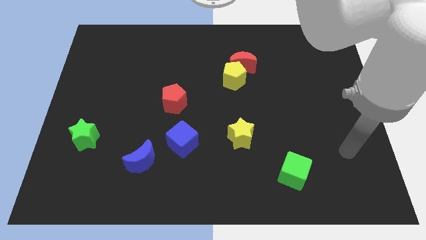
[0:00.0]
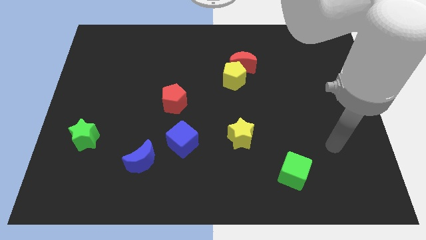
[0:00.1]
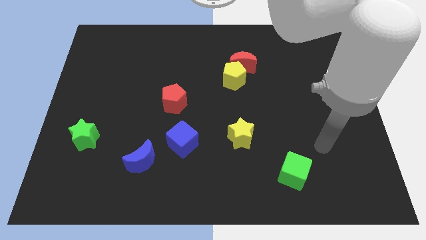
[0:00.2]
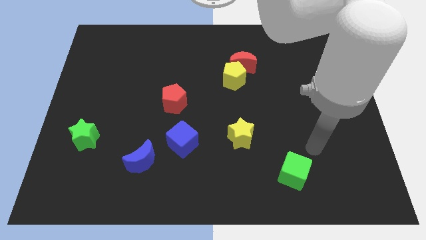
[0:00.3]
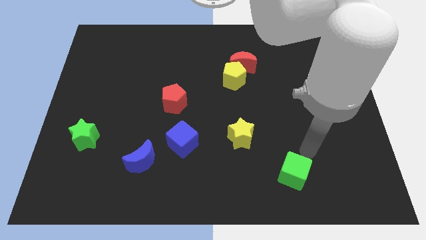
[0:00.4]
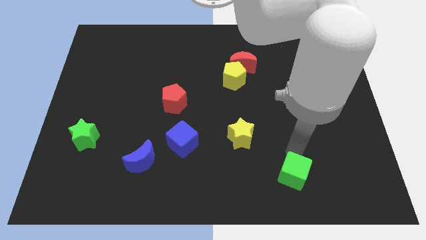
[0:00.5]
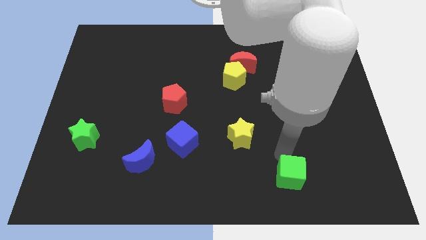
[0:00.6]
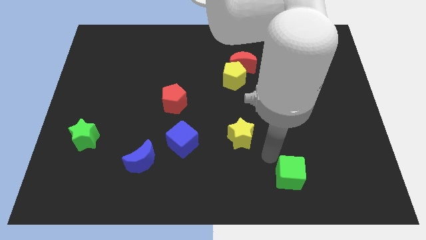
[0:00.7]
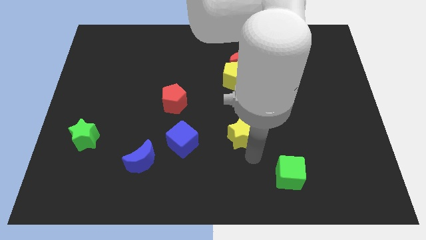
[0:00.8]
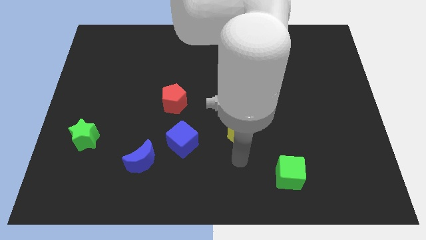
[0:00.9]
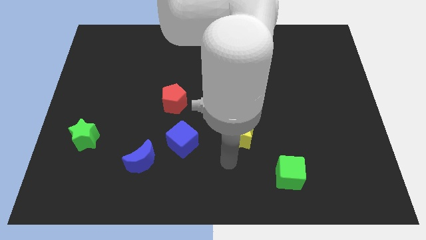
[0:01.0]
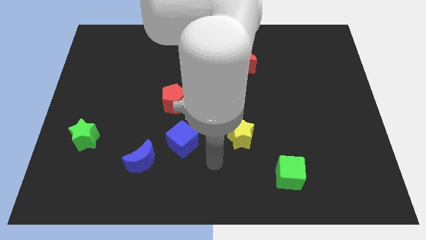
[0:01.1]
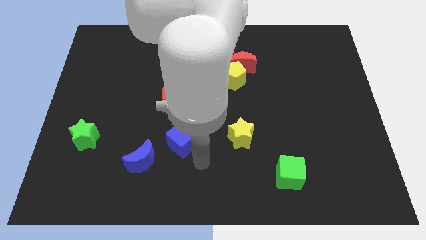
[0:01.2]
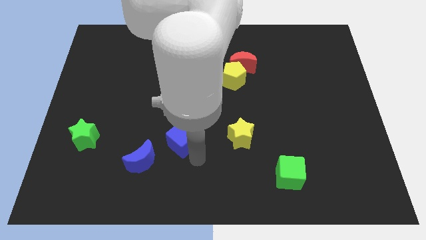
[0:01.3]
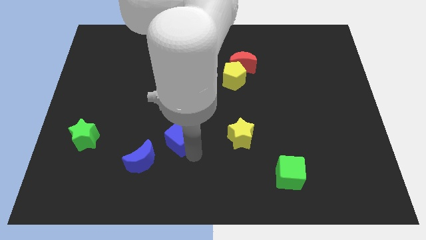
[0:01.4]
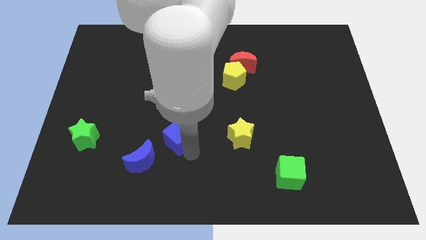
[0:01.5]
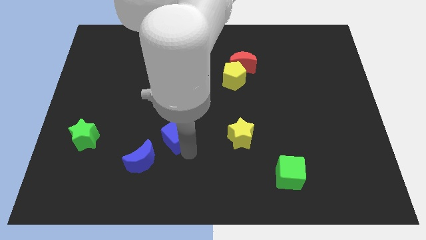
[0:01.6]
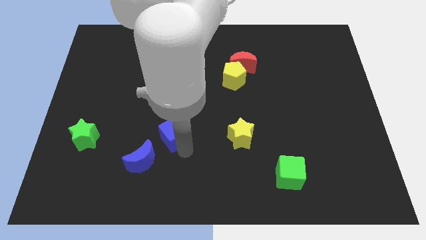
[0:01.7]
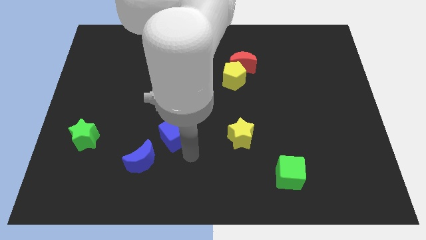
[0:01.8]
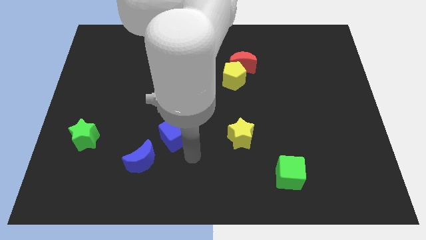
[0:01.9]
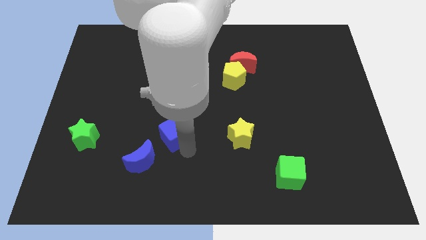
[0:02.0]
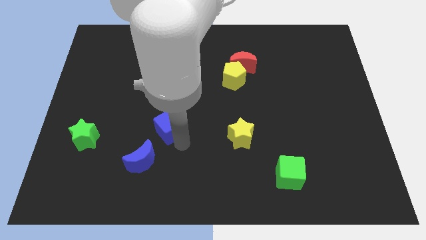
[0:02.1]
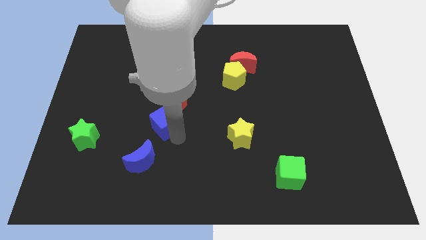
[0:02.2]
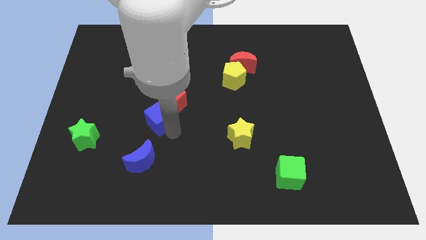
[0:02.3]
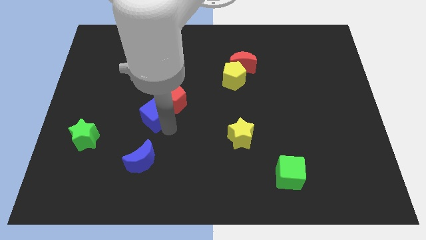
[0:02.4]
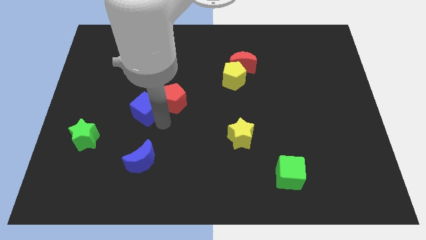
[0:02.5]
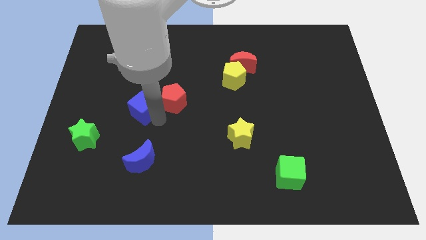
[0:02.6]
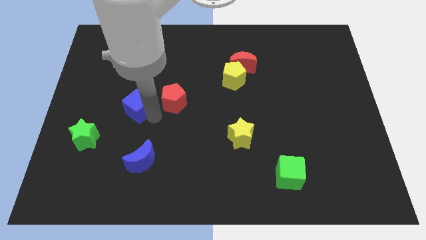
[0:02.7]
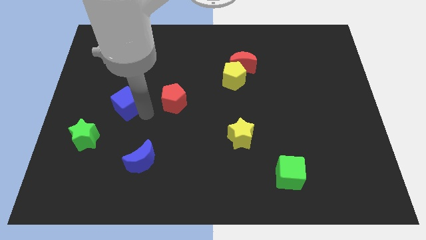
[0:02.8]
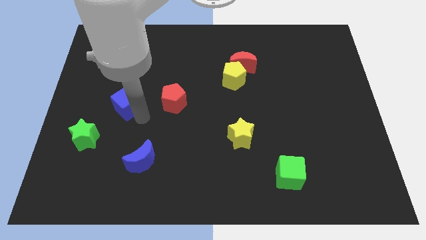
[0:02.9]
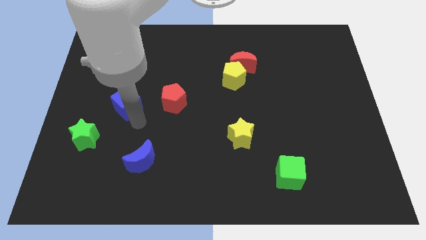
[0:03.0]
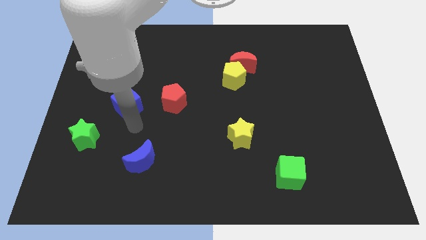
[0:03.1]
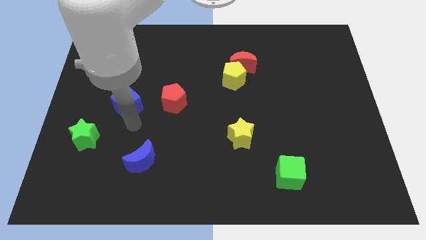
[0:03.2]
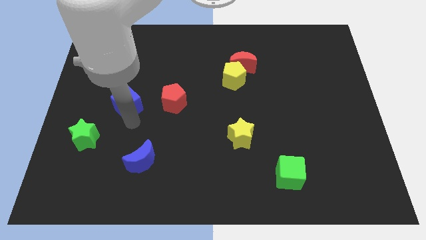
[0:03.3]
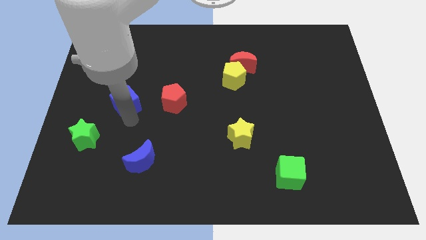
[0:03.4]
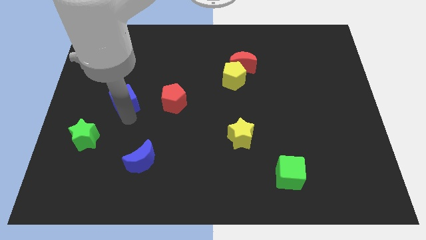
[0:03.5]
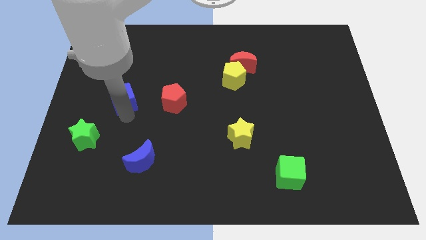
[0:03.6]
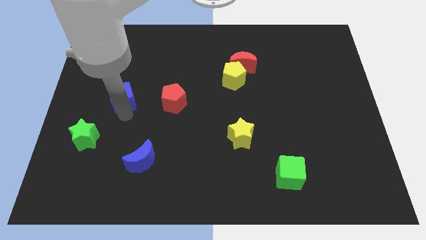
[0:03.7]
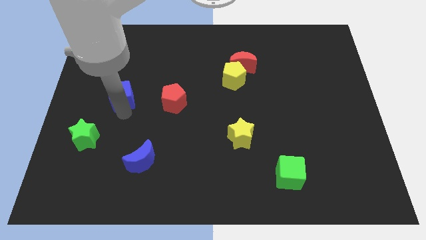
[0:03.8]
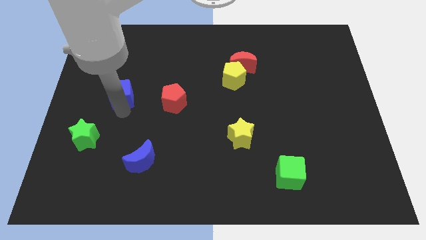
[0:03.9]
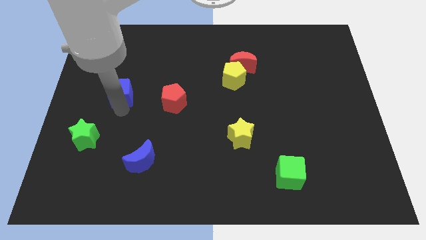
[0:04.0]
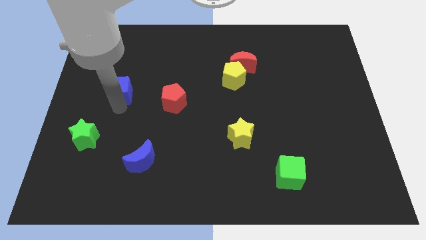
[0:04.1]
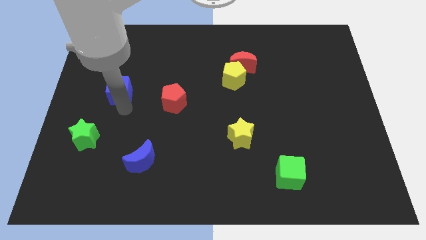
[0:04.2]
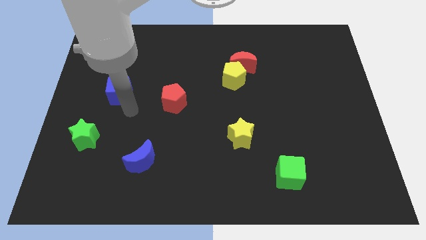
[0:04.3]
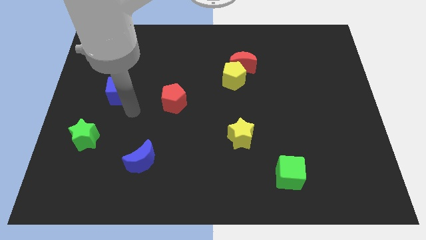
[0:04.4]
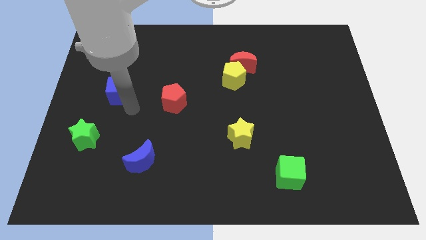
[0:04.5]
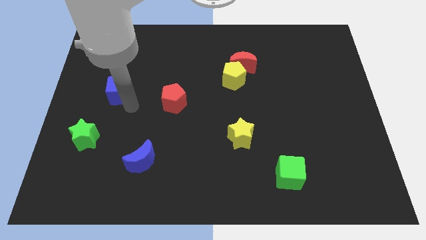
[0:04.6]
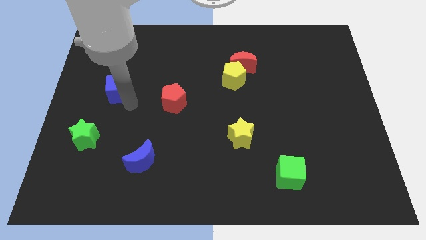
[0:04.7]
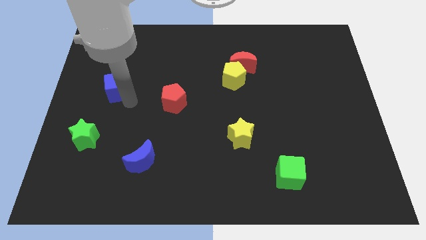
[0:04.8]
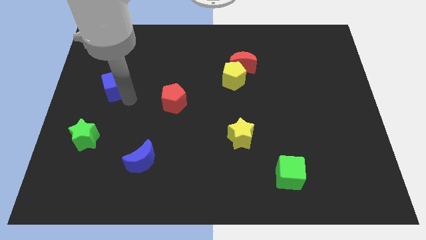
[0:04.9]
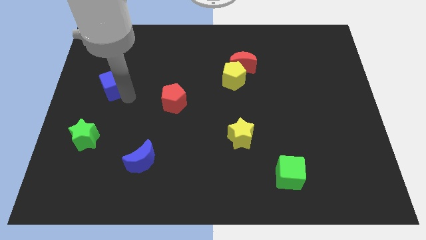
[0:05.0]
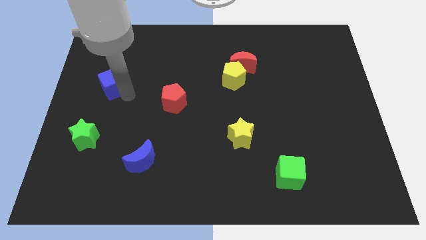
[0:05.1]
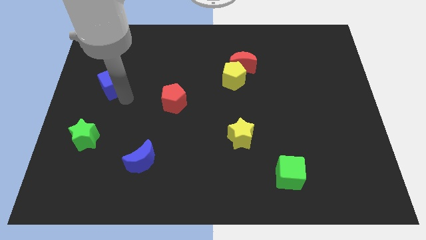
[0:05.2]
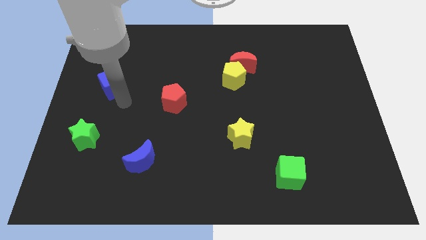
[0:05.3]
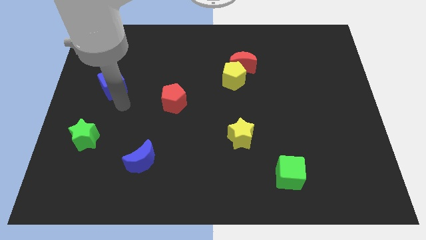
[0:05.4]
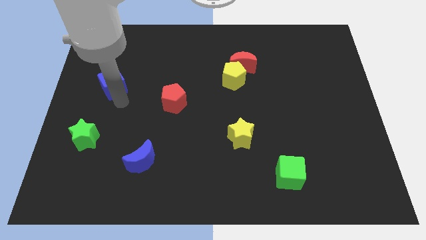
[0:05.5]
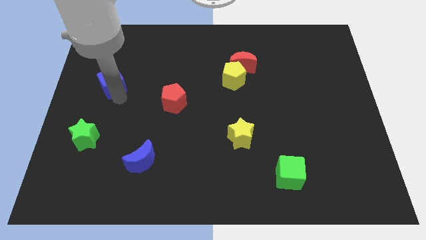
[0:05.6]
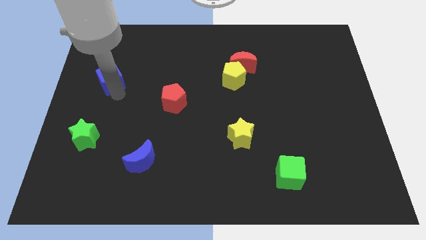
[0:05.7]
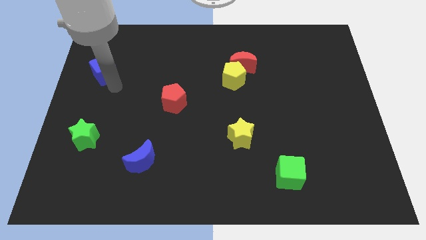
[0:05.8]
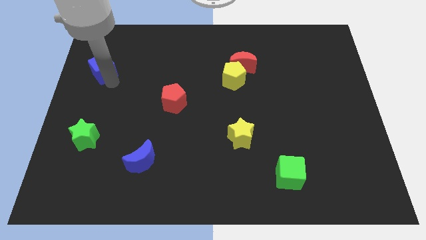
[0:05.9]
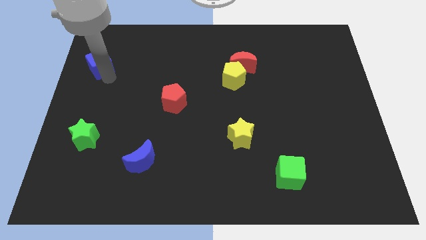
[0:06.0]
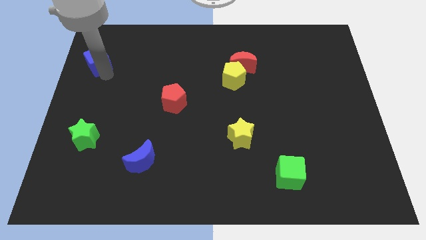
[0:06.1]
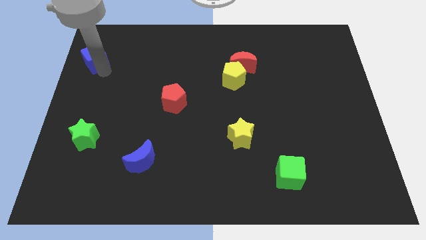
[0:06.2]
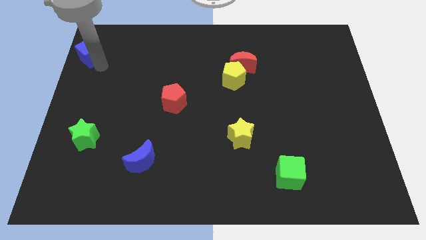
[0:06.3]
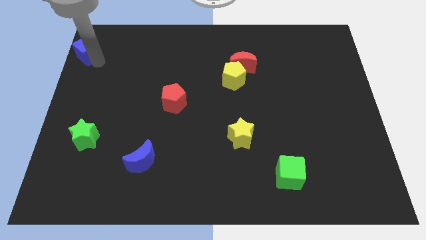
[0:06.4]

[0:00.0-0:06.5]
put the blue cube to the top left corner

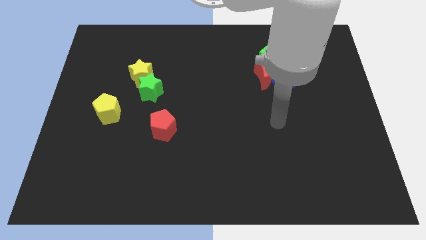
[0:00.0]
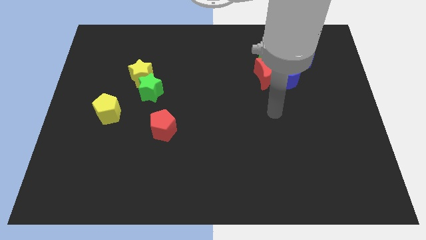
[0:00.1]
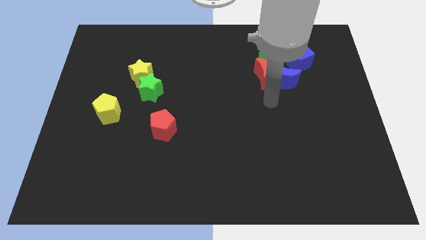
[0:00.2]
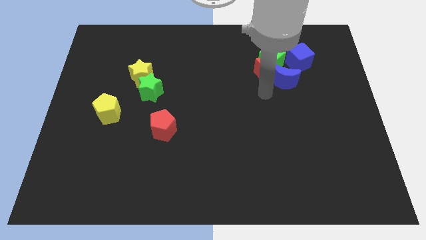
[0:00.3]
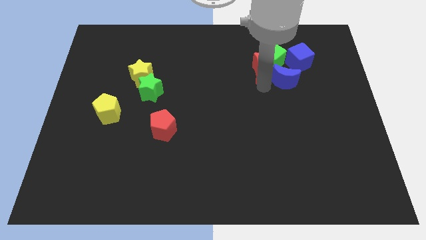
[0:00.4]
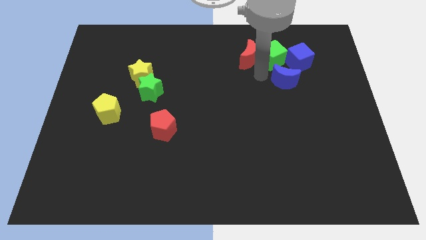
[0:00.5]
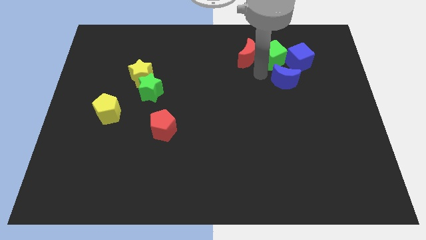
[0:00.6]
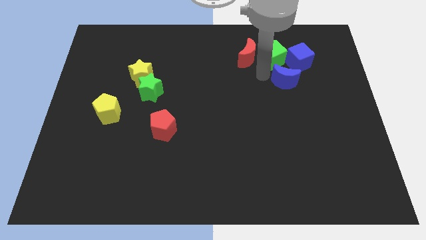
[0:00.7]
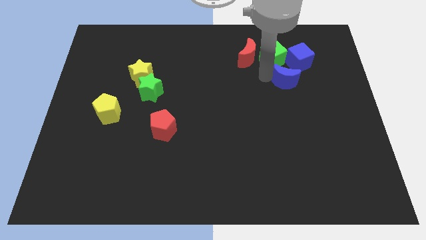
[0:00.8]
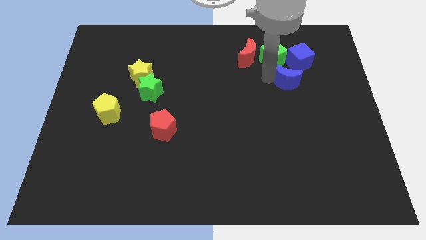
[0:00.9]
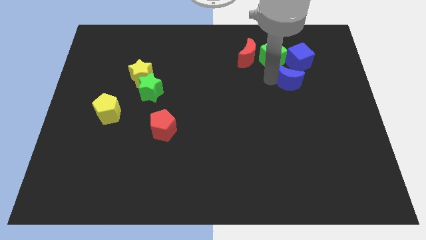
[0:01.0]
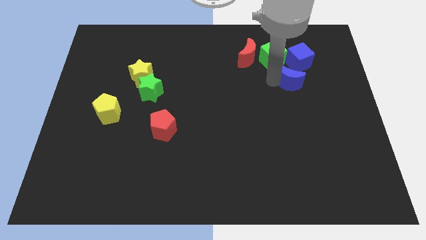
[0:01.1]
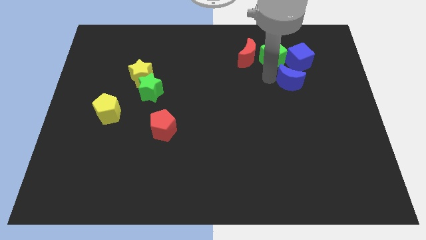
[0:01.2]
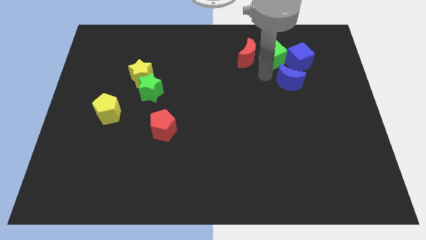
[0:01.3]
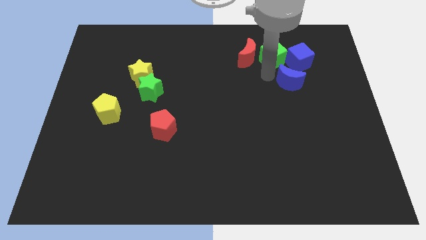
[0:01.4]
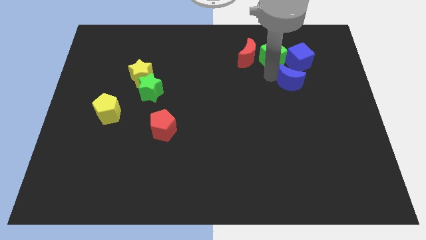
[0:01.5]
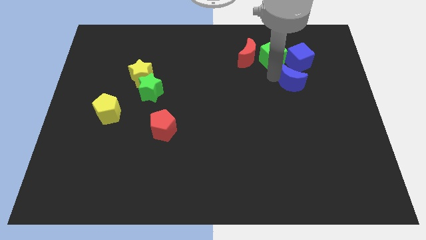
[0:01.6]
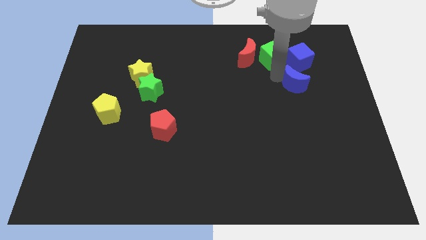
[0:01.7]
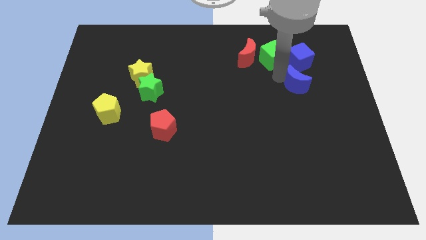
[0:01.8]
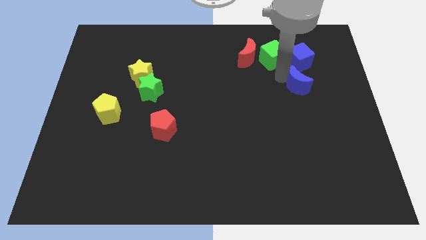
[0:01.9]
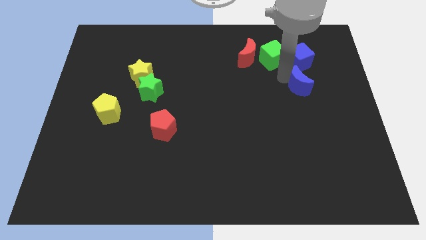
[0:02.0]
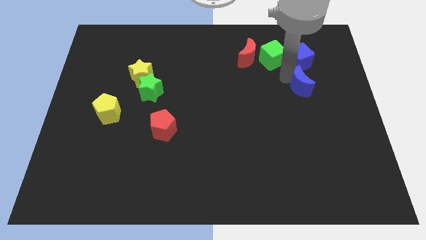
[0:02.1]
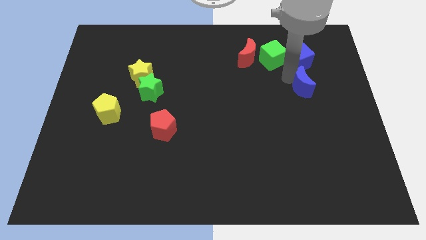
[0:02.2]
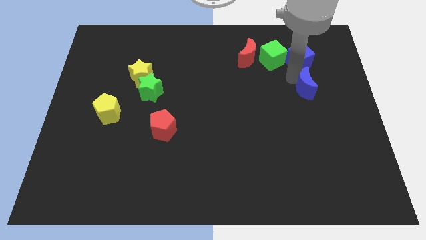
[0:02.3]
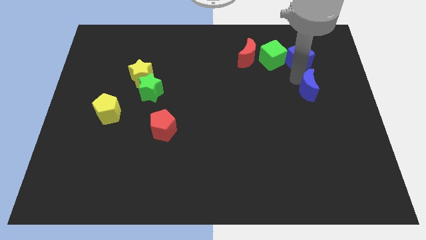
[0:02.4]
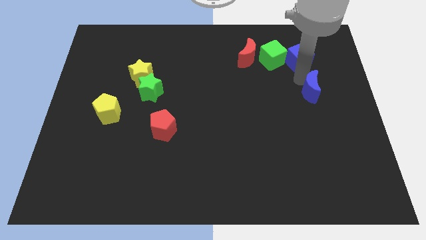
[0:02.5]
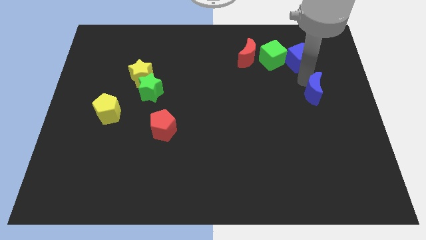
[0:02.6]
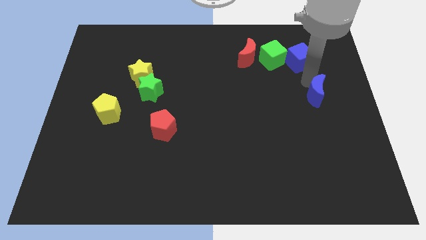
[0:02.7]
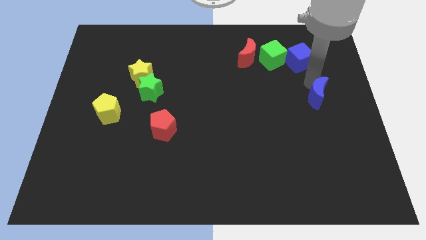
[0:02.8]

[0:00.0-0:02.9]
slide the blue moon to the center right
